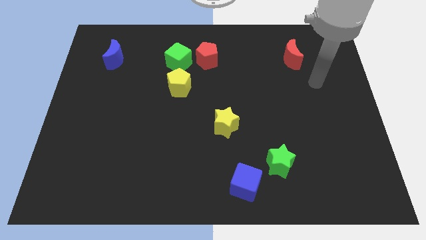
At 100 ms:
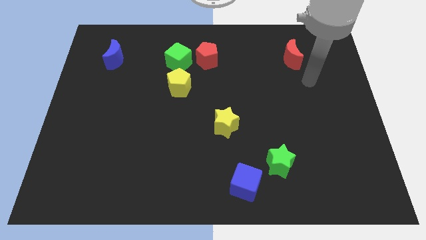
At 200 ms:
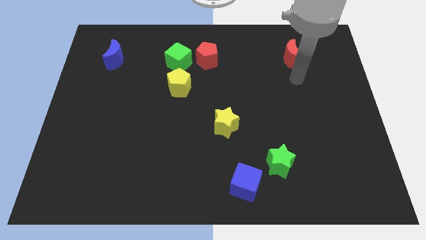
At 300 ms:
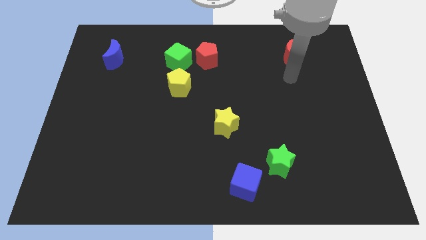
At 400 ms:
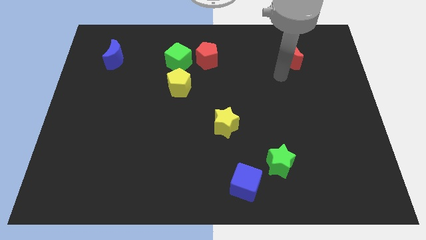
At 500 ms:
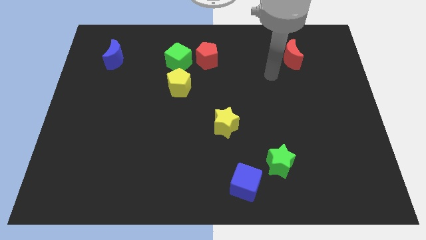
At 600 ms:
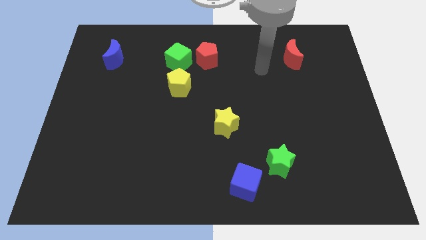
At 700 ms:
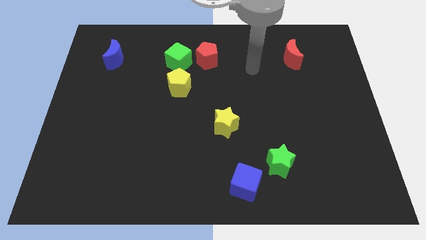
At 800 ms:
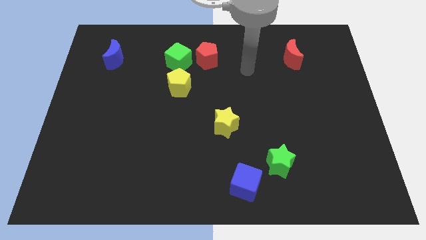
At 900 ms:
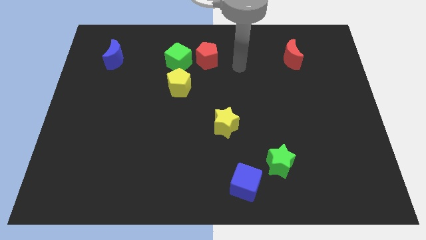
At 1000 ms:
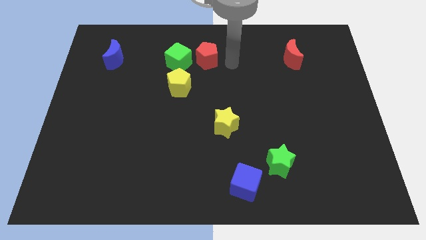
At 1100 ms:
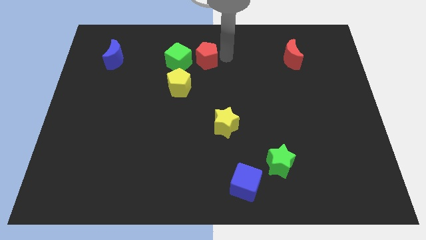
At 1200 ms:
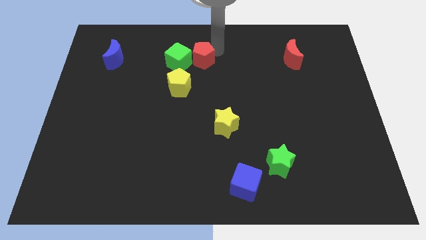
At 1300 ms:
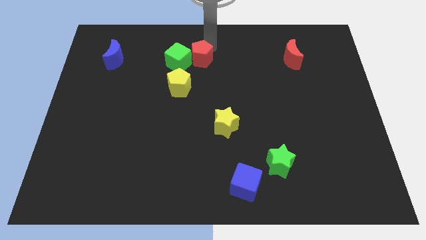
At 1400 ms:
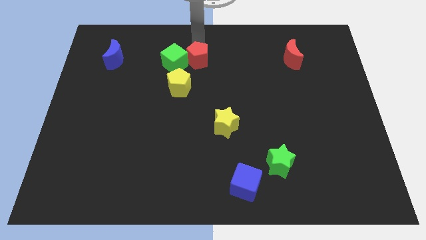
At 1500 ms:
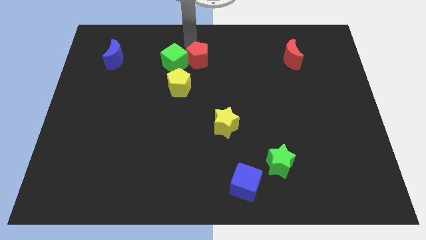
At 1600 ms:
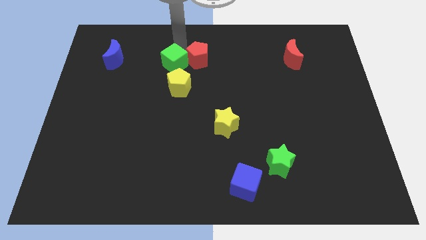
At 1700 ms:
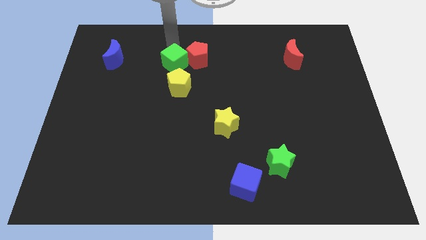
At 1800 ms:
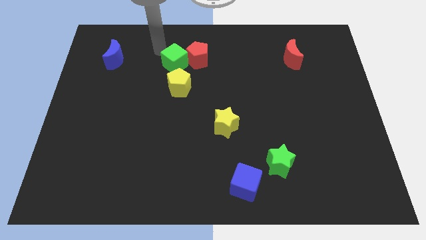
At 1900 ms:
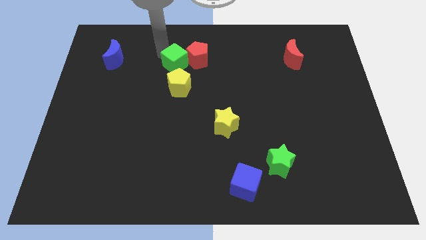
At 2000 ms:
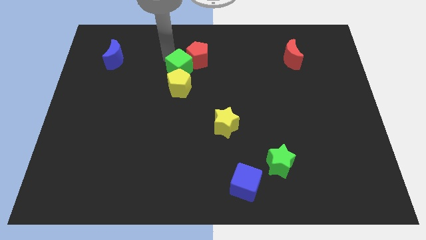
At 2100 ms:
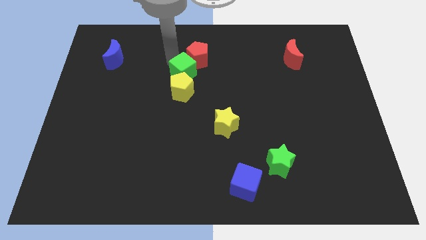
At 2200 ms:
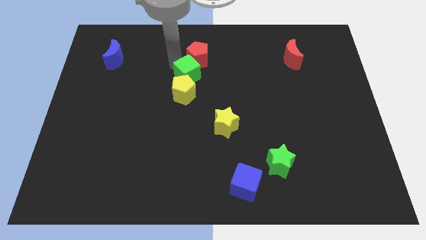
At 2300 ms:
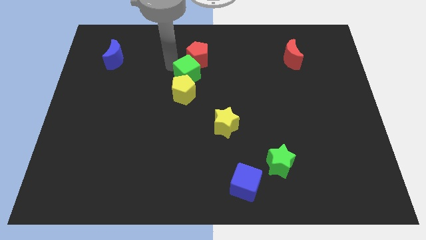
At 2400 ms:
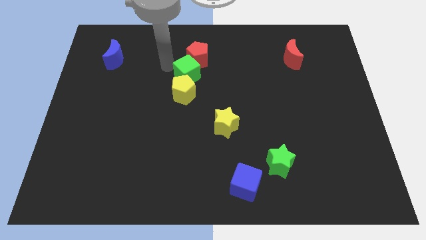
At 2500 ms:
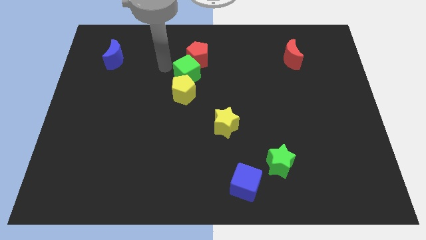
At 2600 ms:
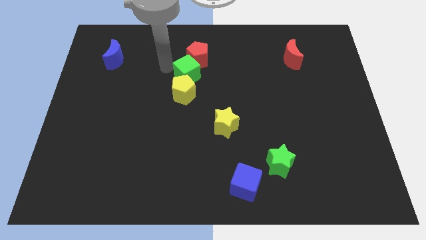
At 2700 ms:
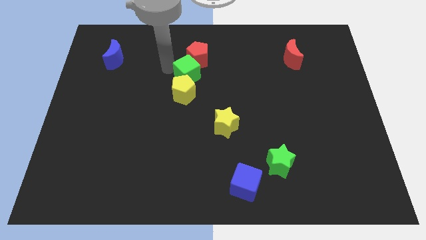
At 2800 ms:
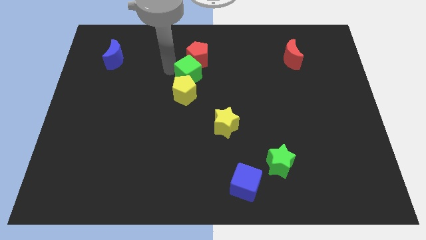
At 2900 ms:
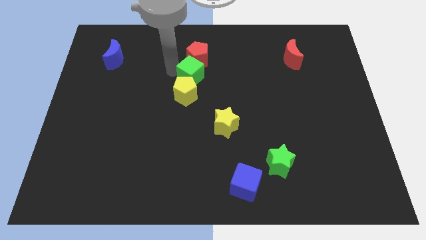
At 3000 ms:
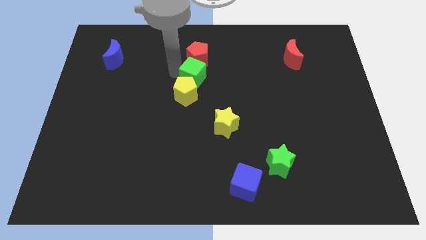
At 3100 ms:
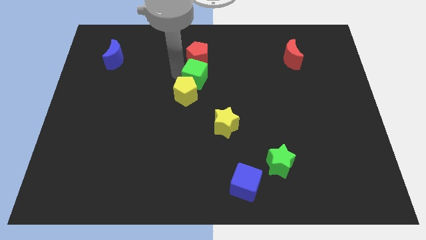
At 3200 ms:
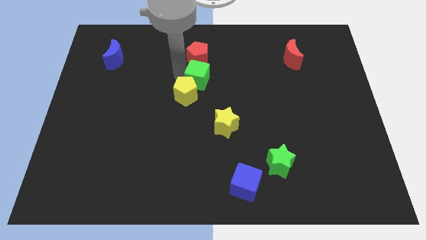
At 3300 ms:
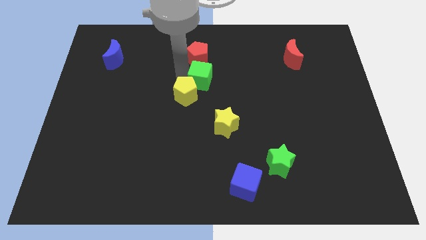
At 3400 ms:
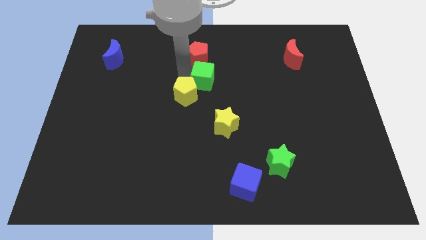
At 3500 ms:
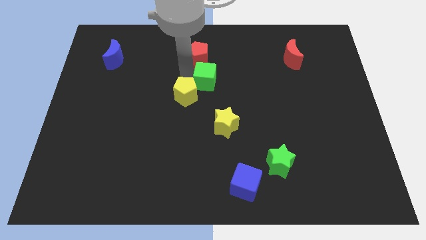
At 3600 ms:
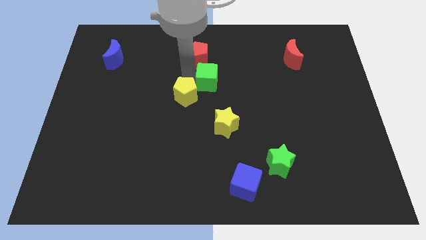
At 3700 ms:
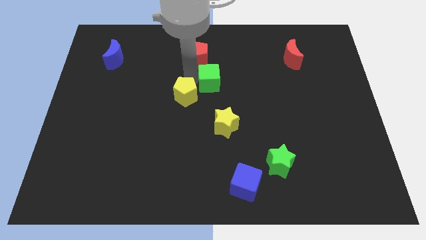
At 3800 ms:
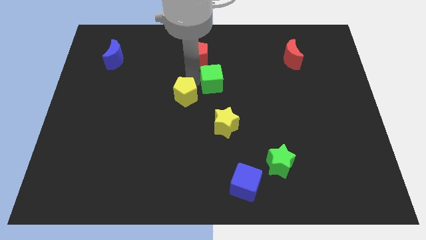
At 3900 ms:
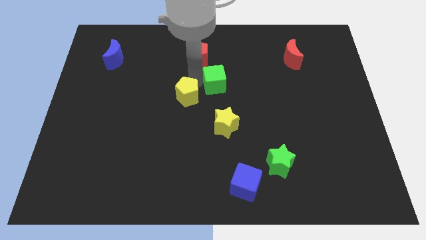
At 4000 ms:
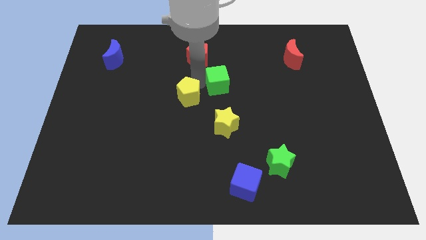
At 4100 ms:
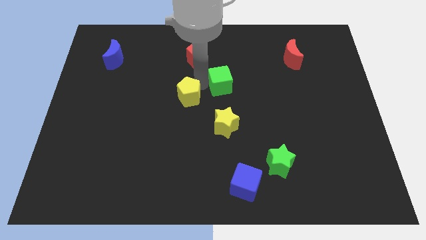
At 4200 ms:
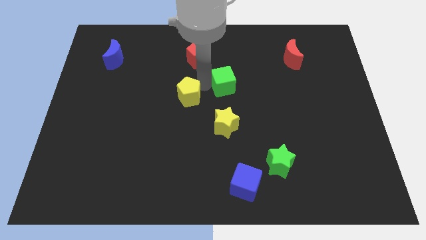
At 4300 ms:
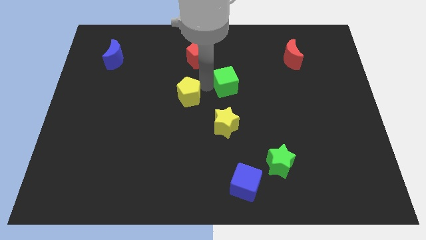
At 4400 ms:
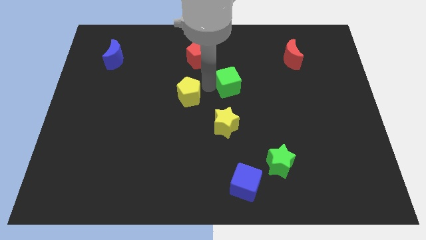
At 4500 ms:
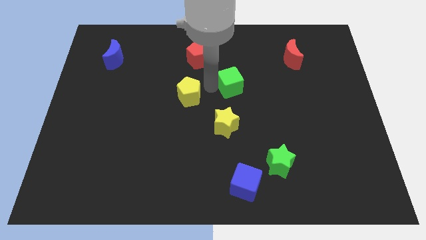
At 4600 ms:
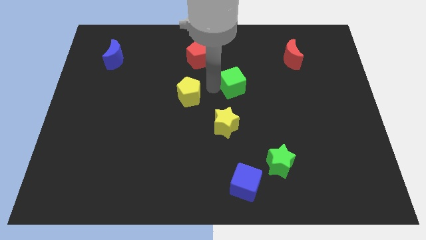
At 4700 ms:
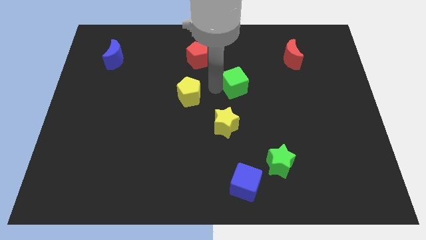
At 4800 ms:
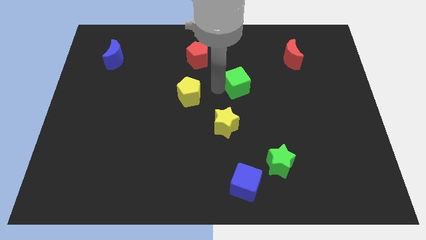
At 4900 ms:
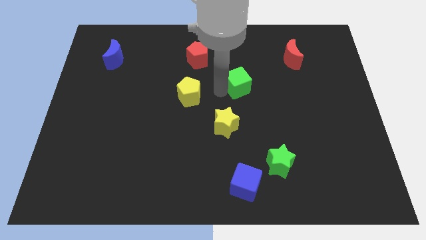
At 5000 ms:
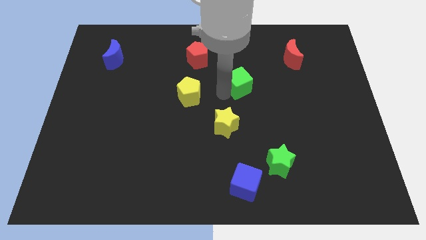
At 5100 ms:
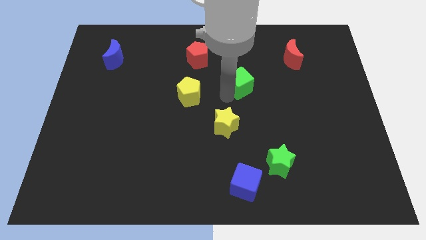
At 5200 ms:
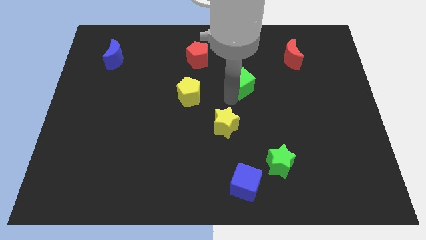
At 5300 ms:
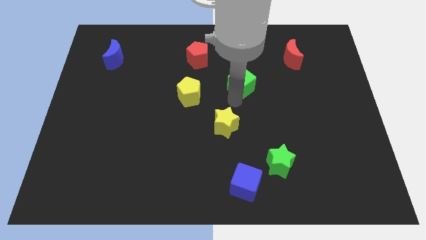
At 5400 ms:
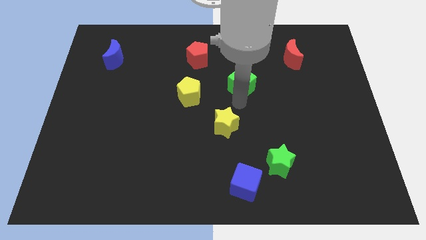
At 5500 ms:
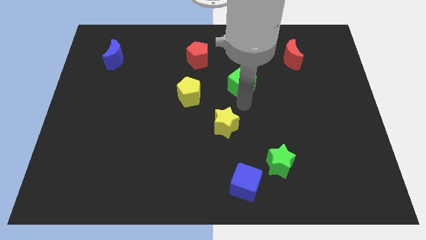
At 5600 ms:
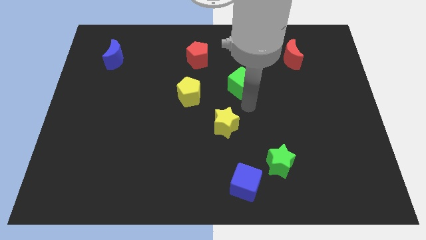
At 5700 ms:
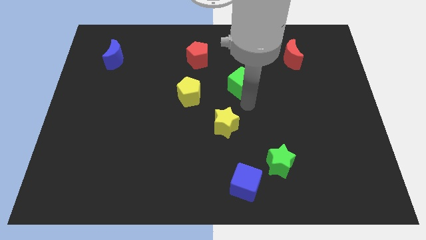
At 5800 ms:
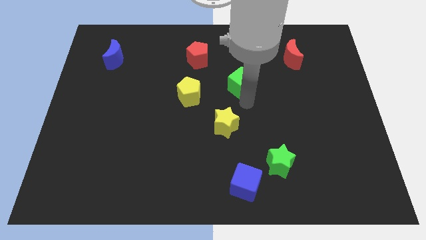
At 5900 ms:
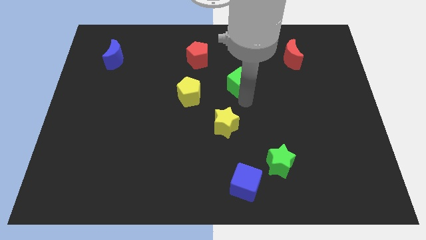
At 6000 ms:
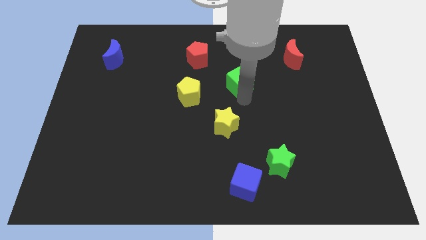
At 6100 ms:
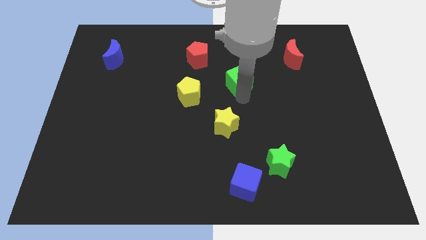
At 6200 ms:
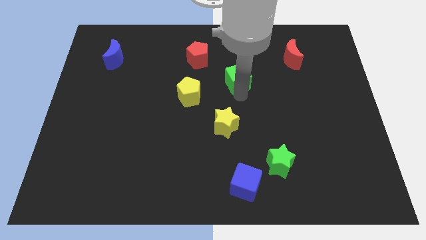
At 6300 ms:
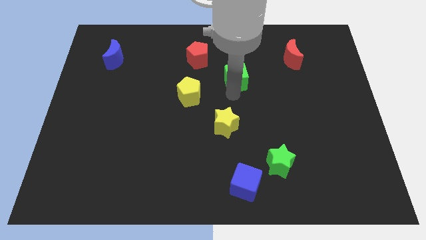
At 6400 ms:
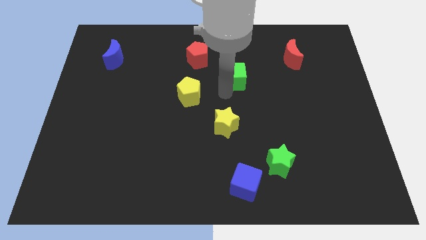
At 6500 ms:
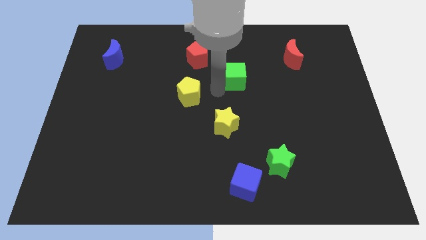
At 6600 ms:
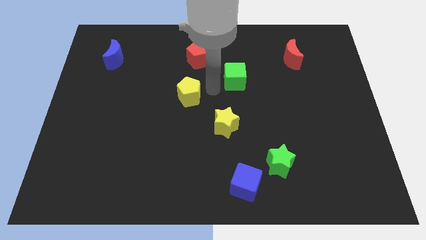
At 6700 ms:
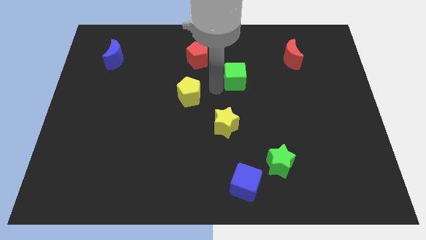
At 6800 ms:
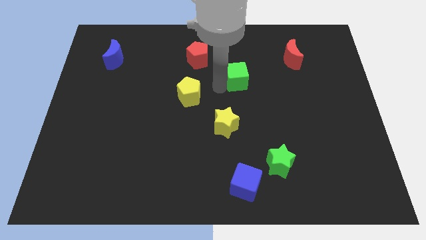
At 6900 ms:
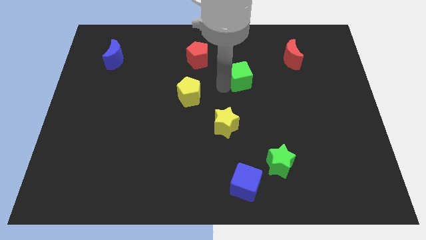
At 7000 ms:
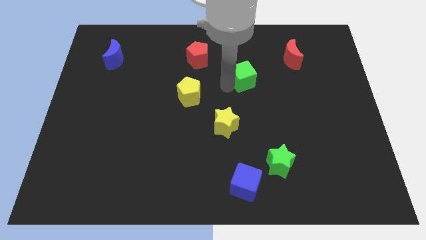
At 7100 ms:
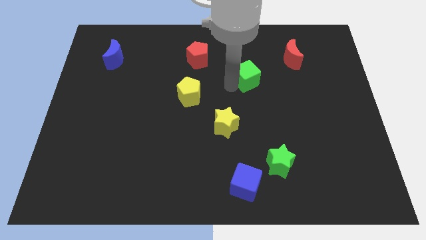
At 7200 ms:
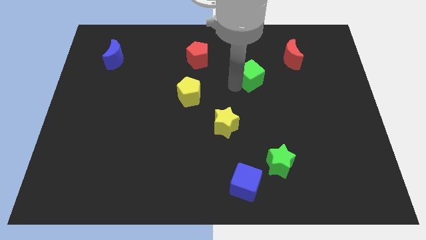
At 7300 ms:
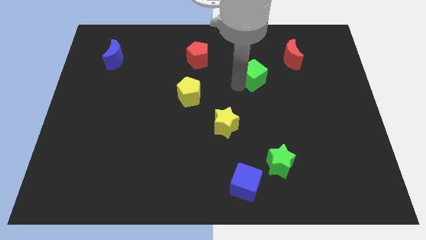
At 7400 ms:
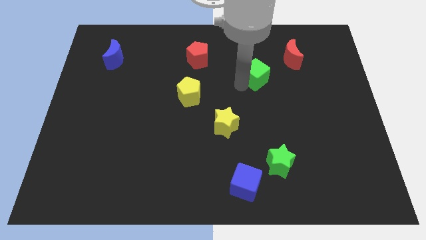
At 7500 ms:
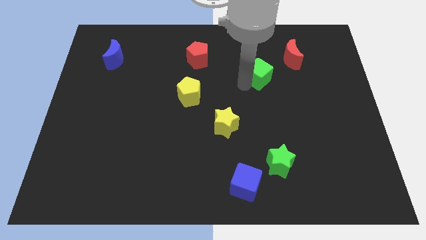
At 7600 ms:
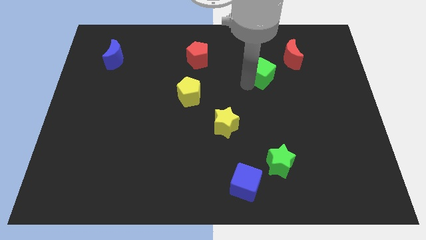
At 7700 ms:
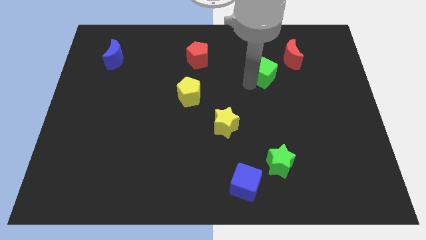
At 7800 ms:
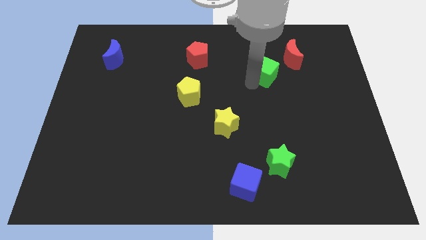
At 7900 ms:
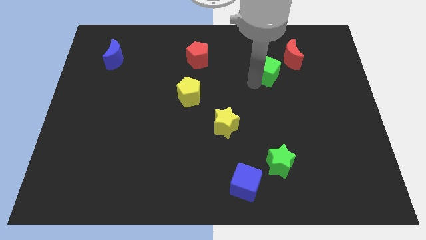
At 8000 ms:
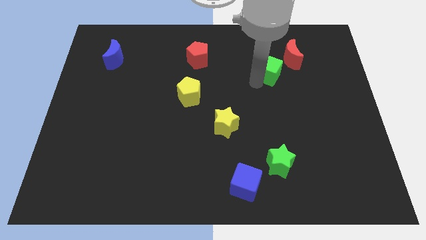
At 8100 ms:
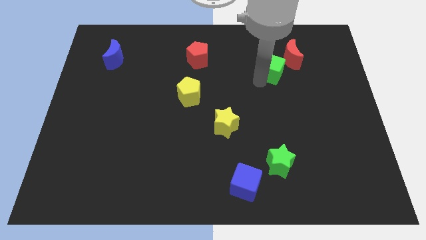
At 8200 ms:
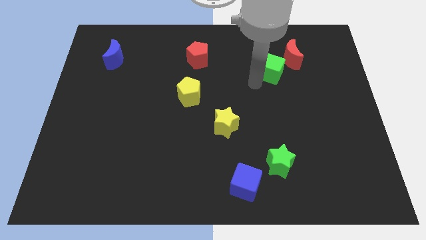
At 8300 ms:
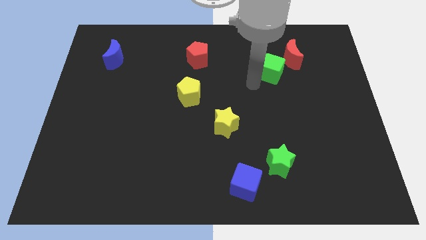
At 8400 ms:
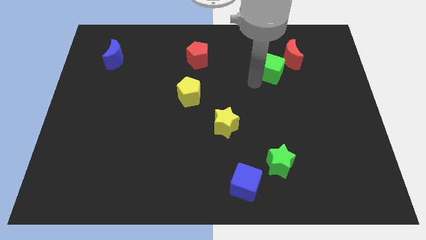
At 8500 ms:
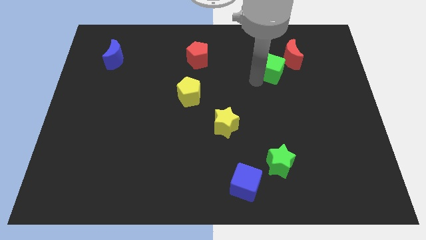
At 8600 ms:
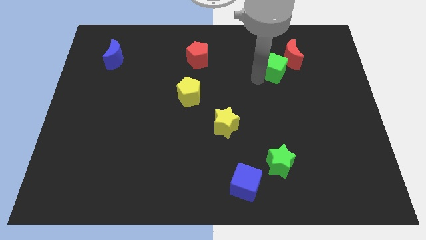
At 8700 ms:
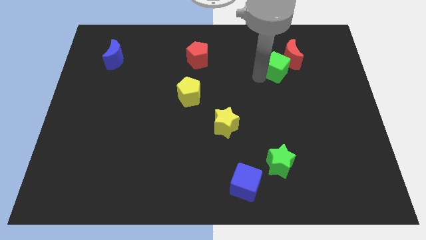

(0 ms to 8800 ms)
move the green cube close to the red moon
